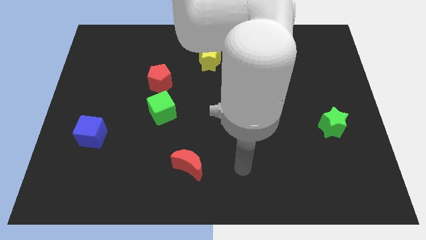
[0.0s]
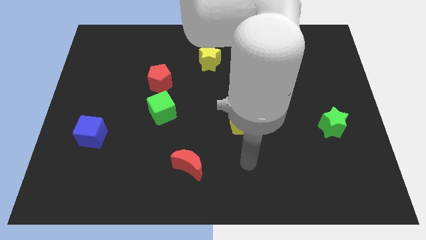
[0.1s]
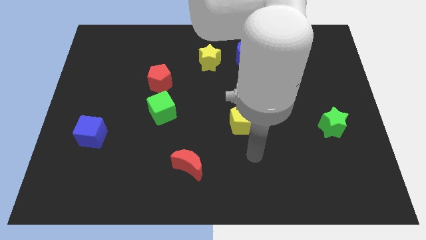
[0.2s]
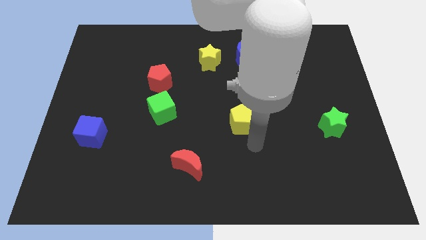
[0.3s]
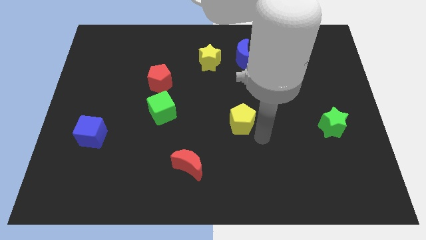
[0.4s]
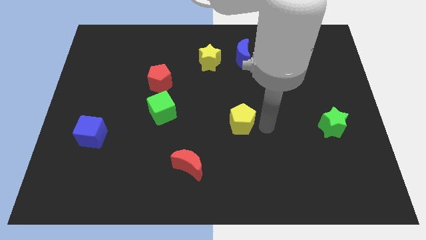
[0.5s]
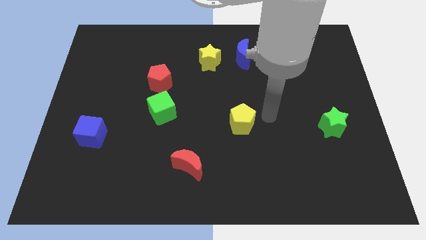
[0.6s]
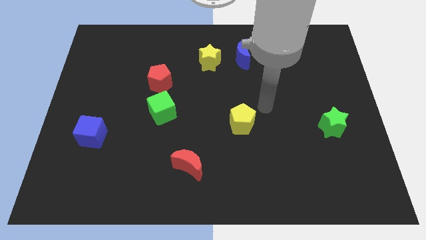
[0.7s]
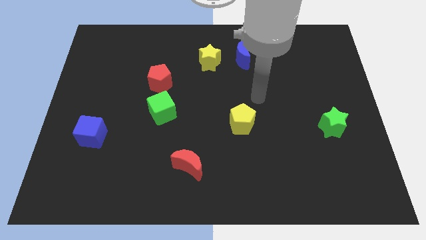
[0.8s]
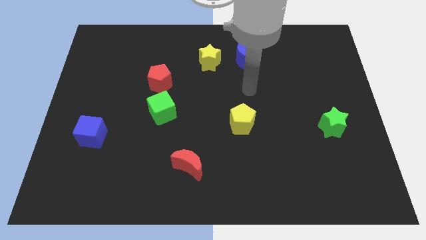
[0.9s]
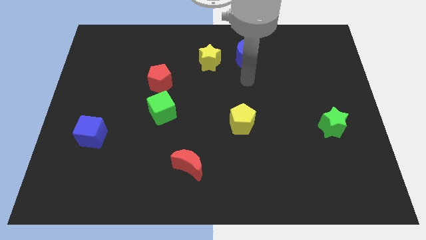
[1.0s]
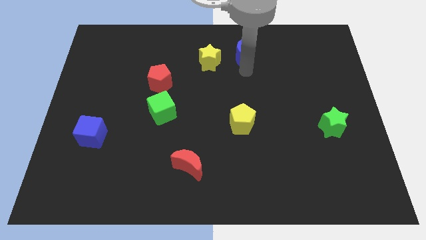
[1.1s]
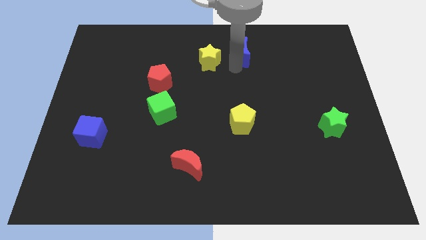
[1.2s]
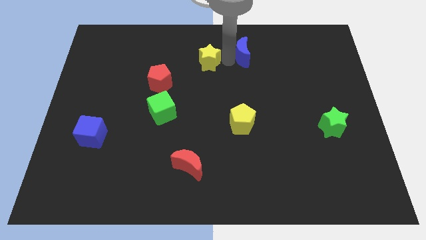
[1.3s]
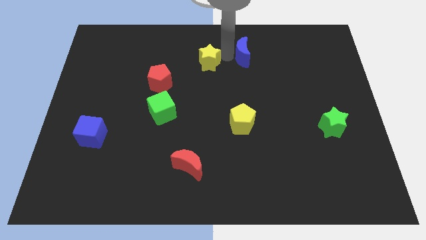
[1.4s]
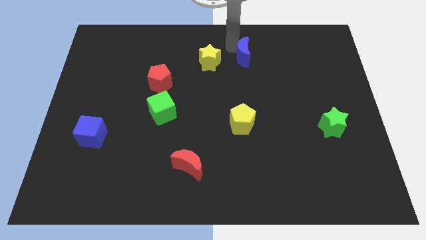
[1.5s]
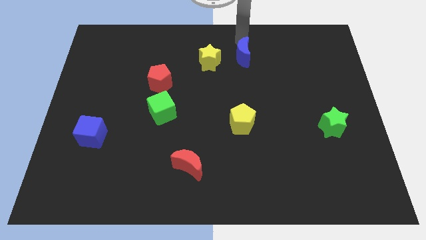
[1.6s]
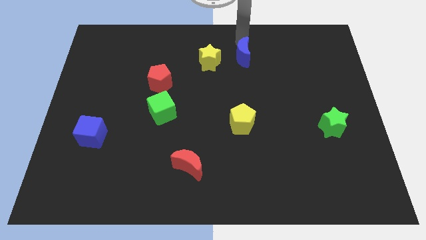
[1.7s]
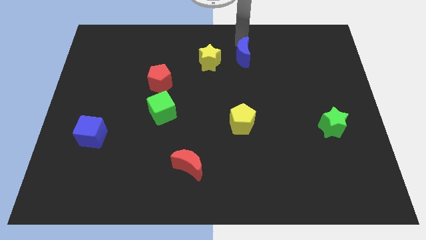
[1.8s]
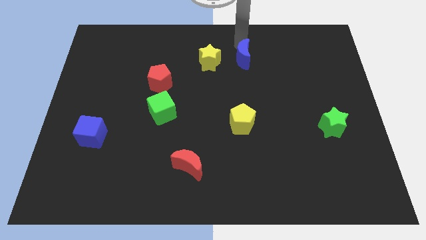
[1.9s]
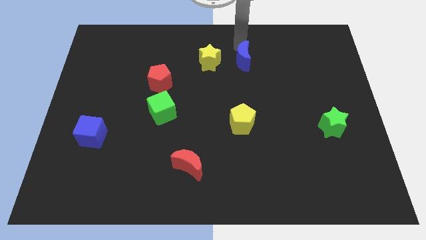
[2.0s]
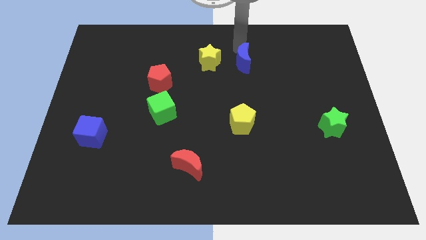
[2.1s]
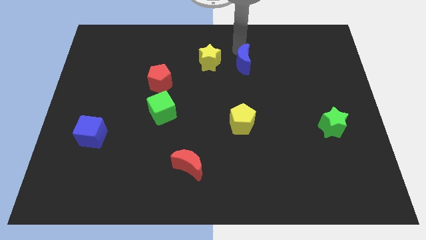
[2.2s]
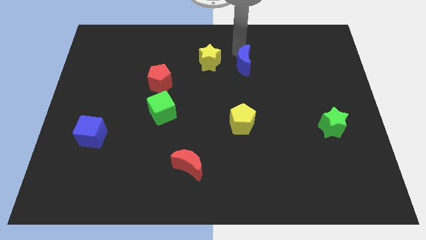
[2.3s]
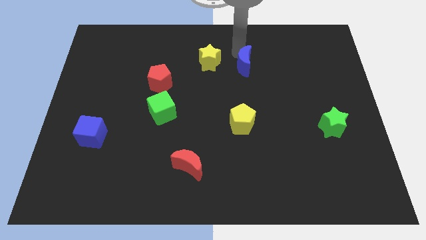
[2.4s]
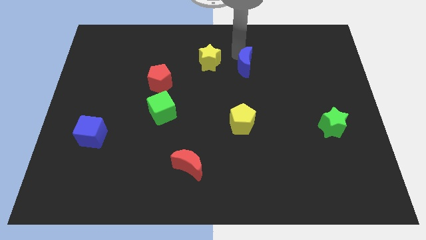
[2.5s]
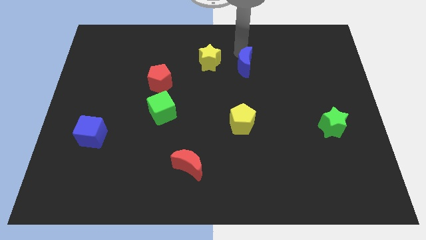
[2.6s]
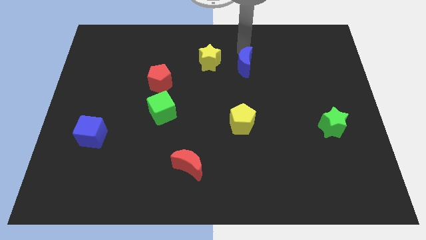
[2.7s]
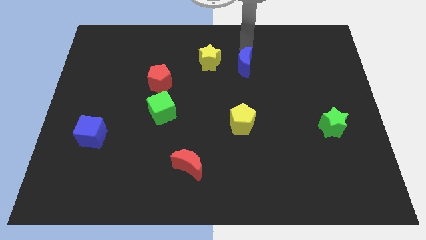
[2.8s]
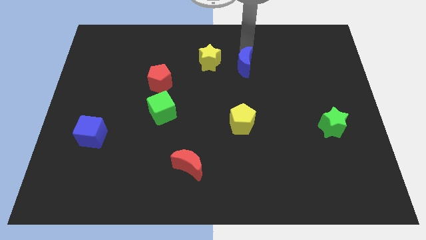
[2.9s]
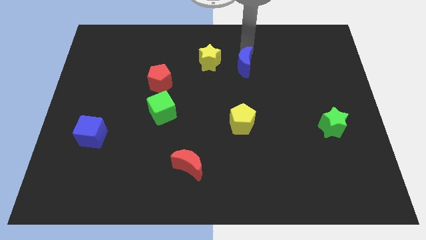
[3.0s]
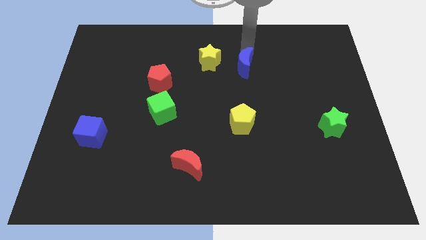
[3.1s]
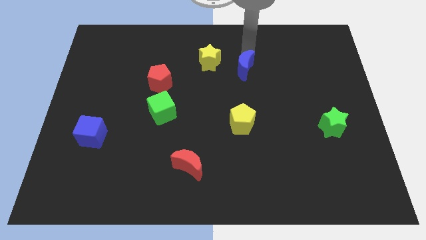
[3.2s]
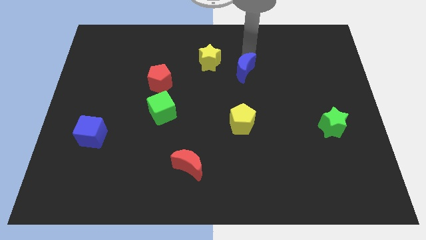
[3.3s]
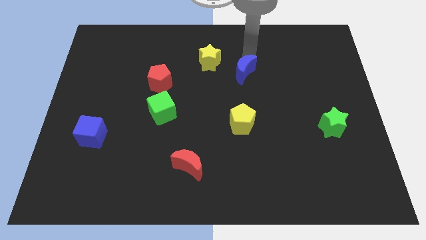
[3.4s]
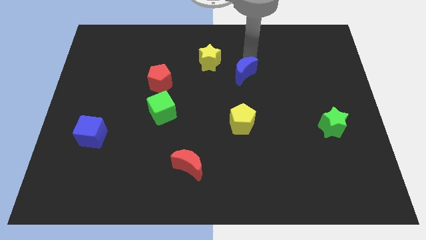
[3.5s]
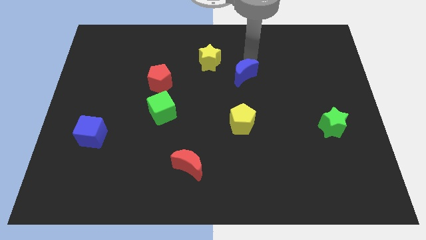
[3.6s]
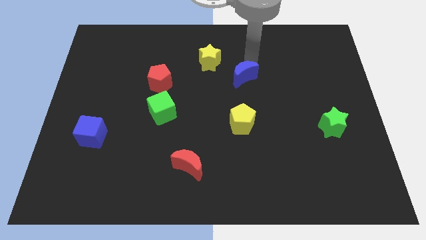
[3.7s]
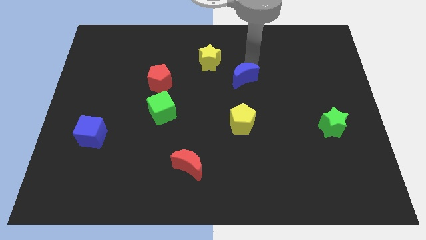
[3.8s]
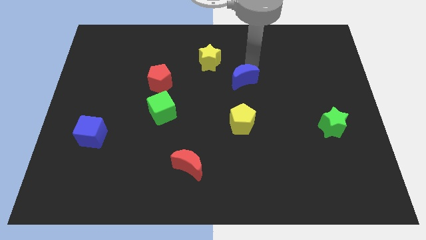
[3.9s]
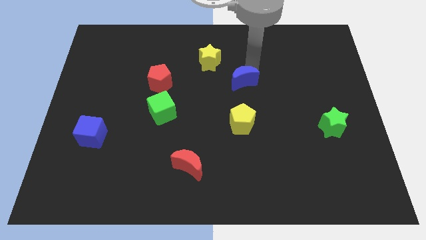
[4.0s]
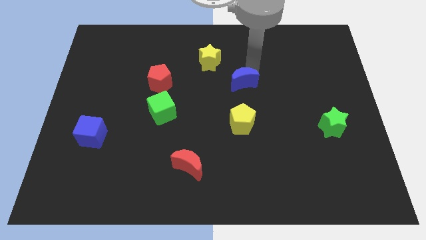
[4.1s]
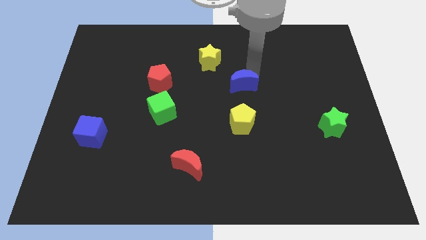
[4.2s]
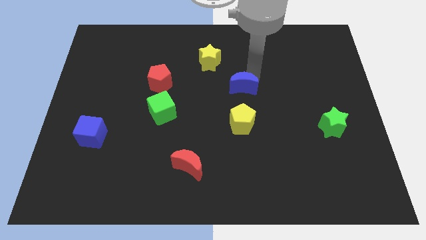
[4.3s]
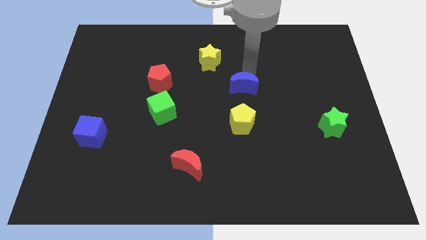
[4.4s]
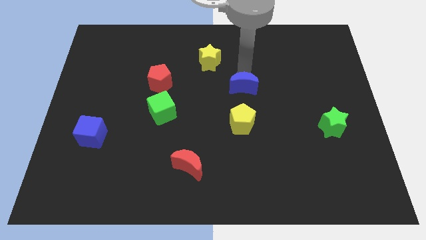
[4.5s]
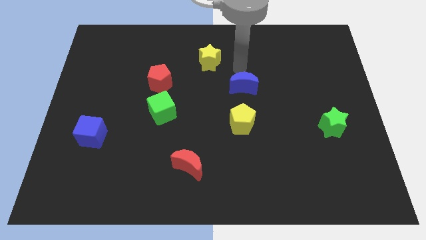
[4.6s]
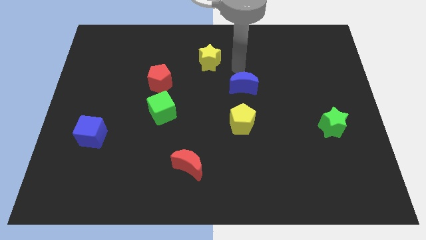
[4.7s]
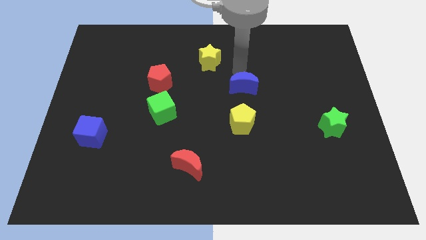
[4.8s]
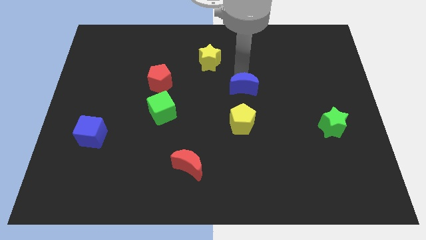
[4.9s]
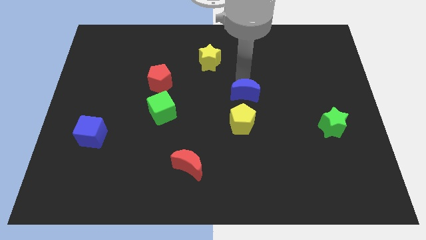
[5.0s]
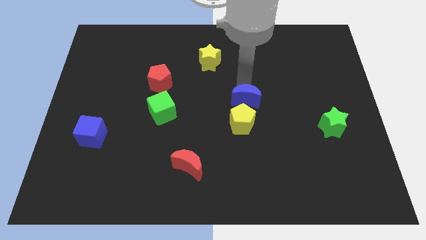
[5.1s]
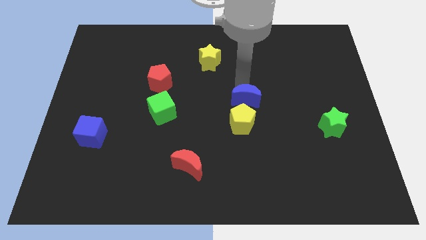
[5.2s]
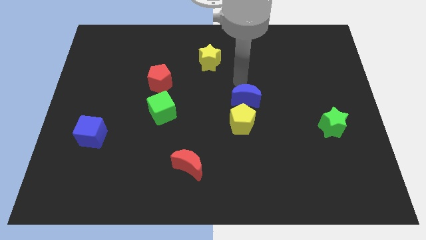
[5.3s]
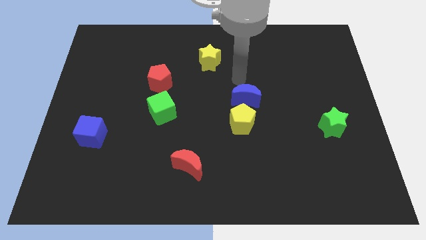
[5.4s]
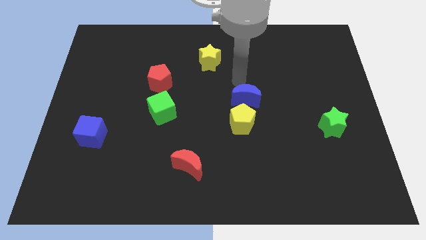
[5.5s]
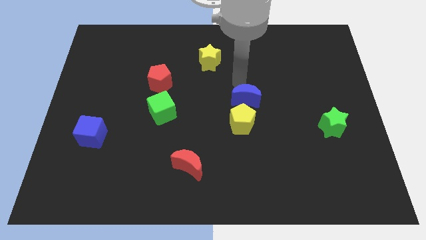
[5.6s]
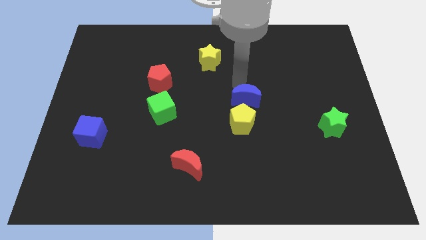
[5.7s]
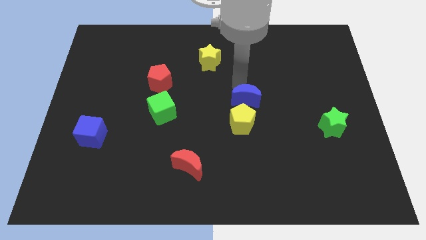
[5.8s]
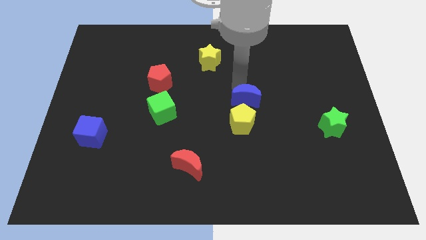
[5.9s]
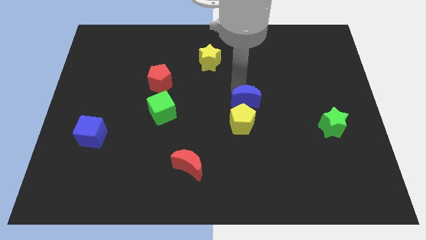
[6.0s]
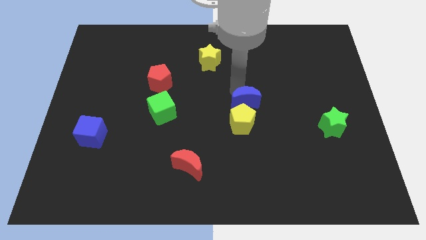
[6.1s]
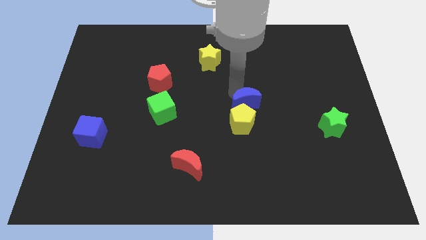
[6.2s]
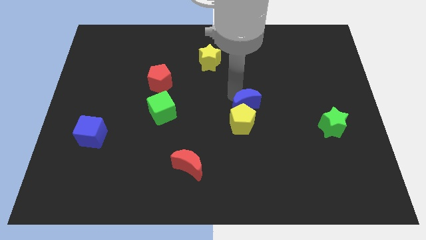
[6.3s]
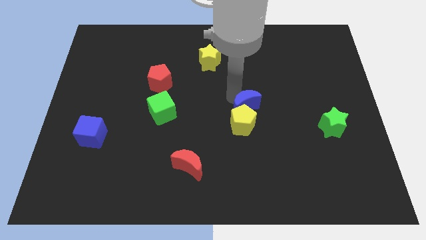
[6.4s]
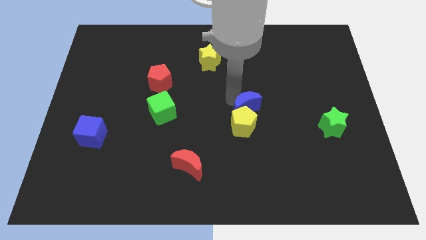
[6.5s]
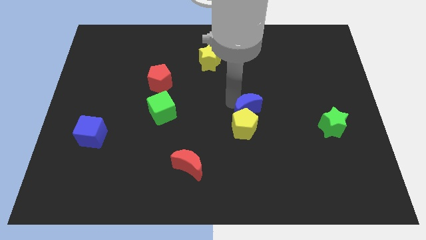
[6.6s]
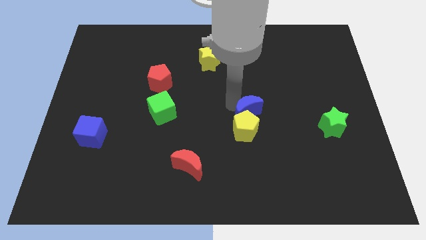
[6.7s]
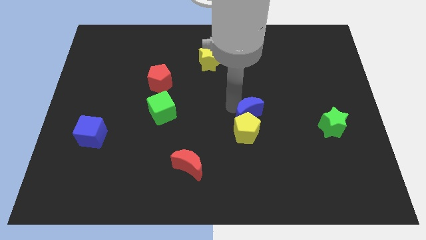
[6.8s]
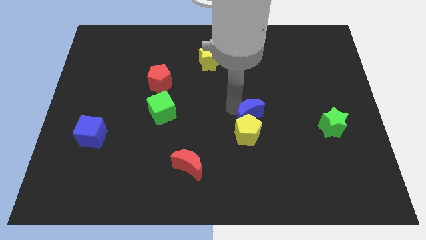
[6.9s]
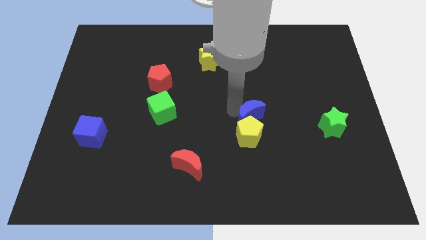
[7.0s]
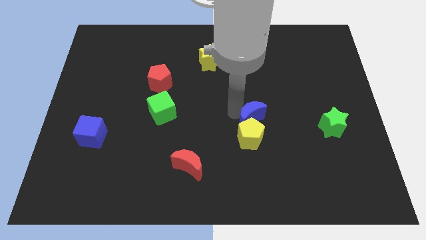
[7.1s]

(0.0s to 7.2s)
move the blue moon downwards

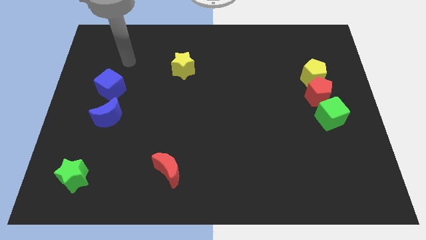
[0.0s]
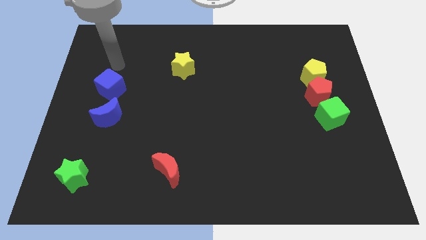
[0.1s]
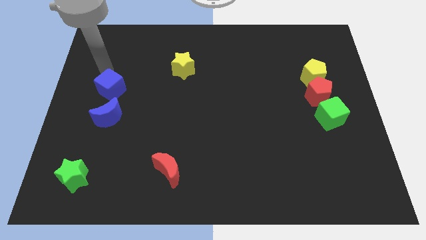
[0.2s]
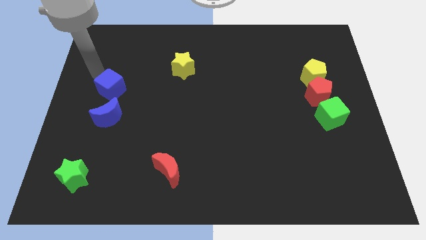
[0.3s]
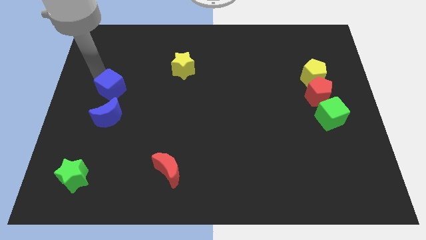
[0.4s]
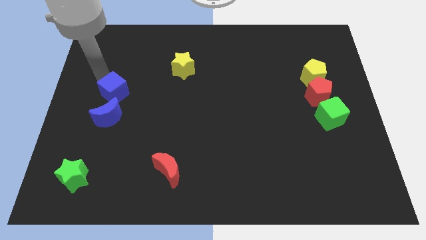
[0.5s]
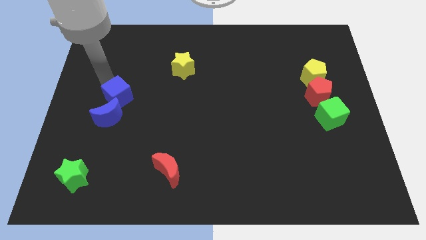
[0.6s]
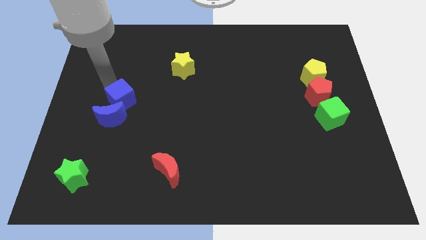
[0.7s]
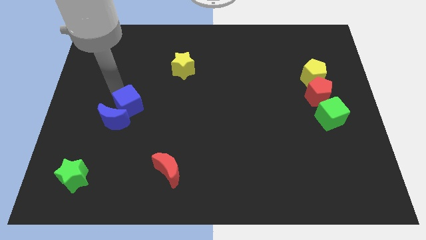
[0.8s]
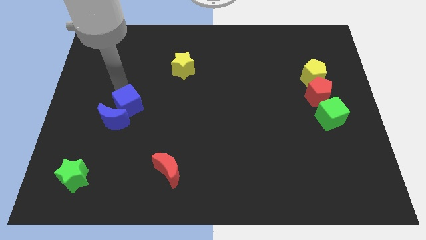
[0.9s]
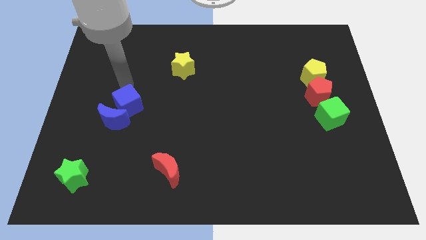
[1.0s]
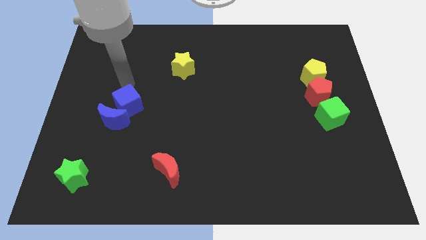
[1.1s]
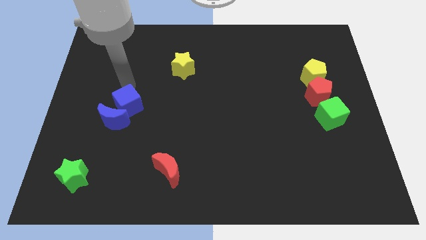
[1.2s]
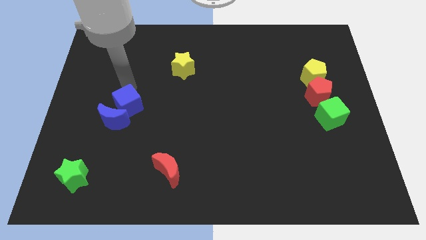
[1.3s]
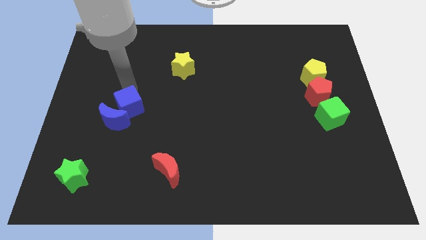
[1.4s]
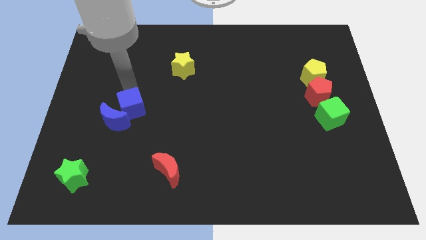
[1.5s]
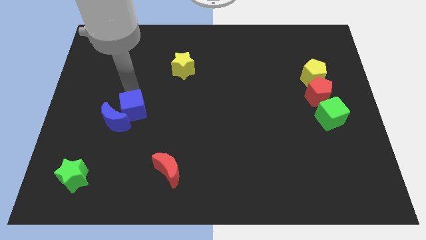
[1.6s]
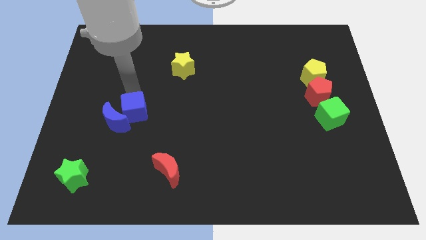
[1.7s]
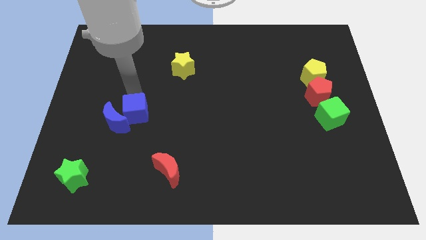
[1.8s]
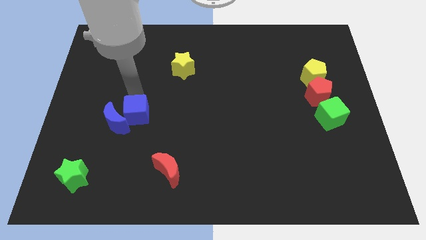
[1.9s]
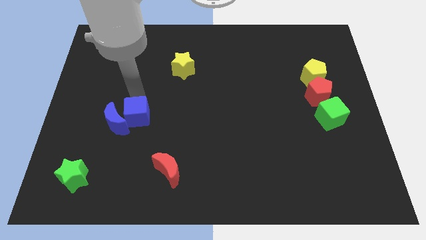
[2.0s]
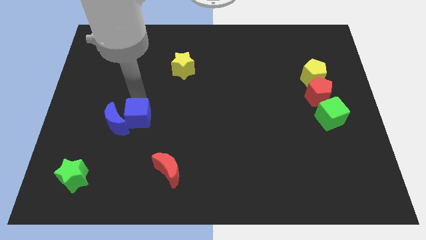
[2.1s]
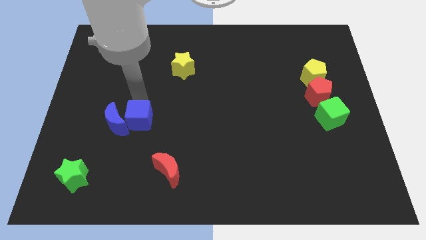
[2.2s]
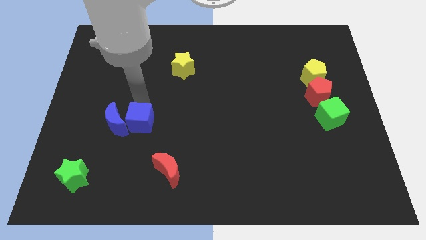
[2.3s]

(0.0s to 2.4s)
slightly push the blue cube downwards
